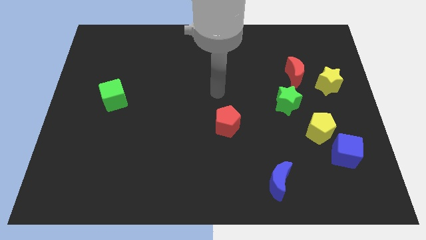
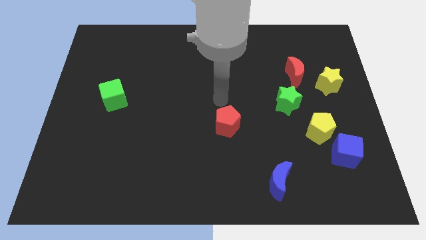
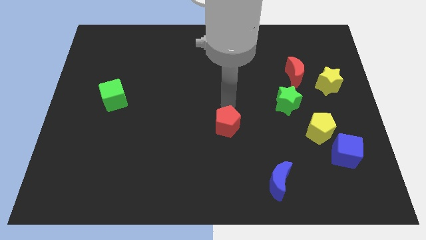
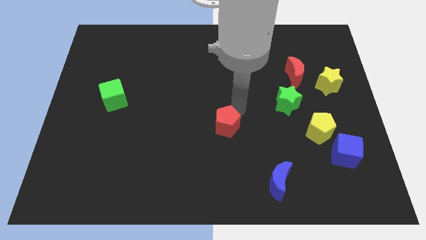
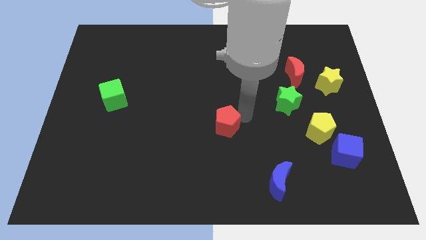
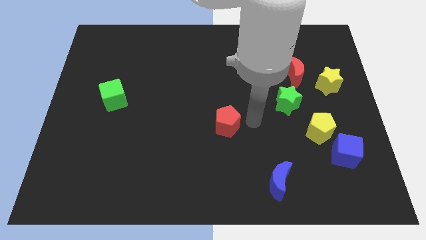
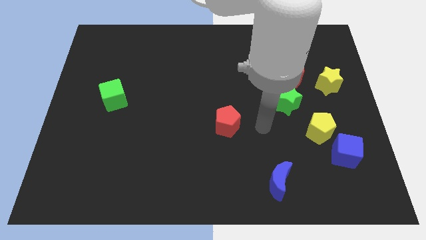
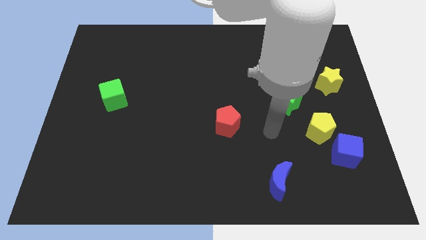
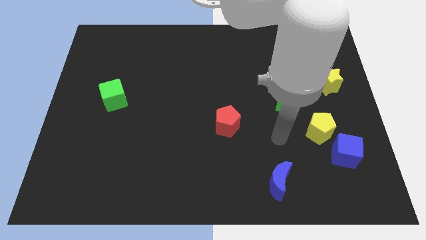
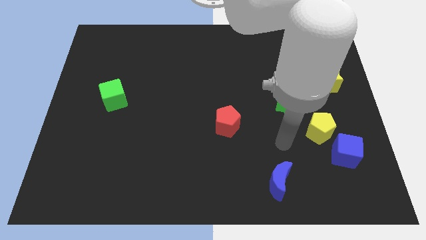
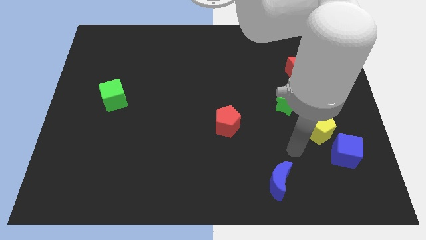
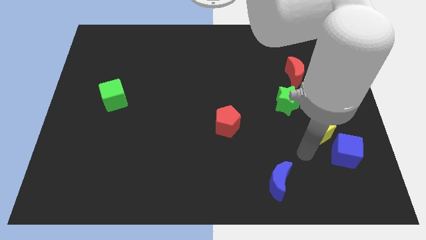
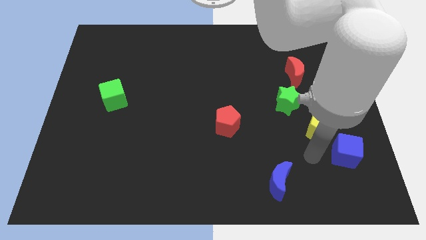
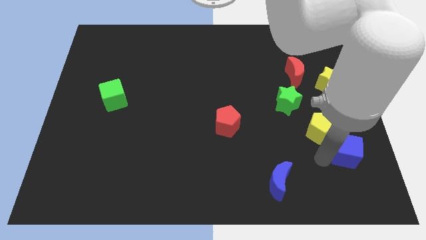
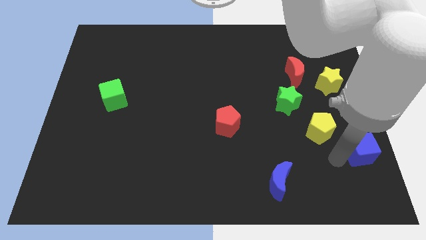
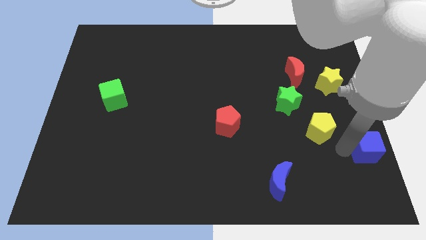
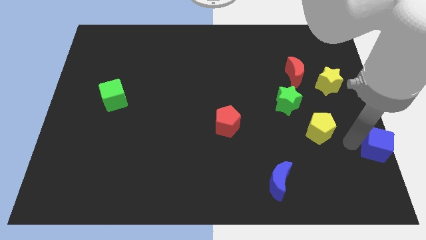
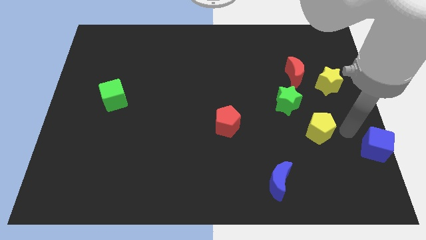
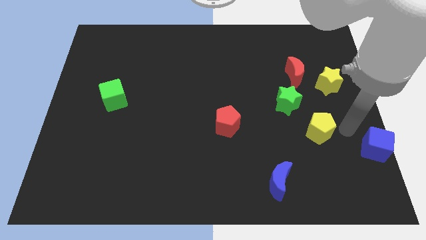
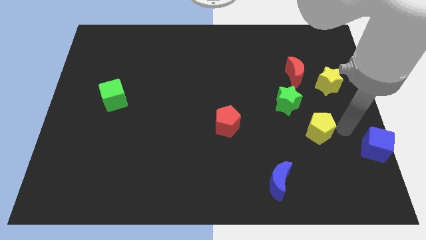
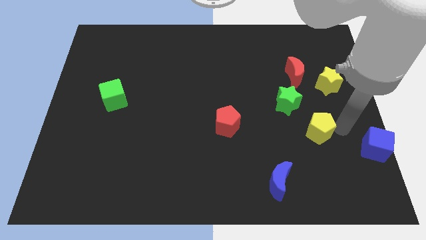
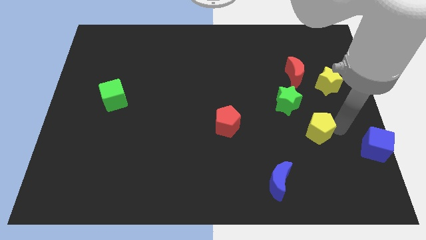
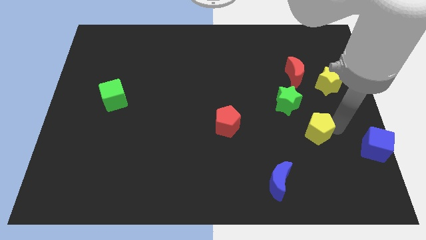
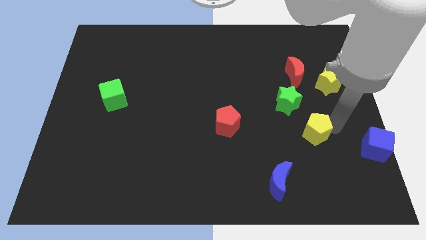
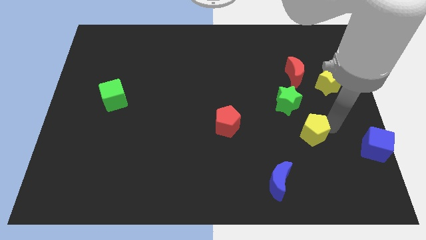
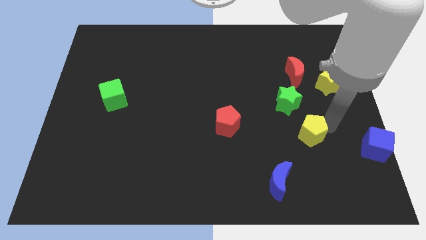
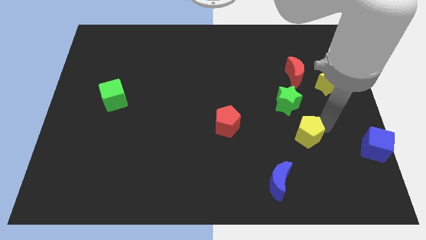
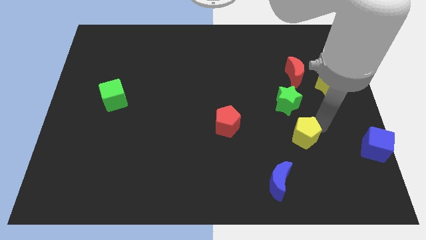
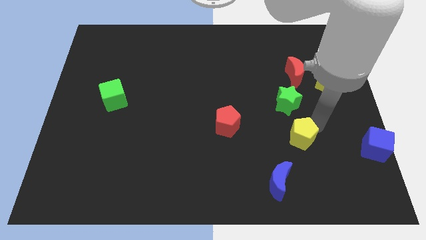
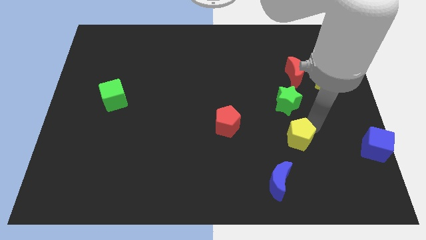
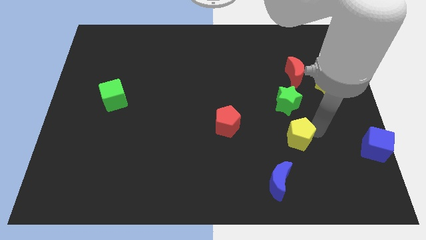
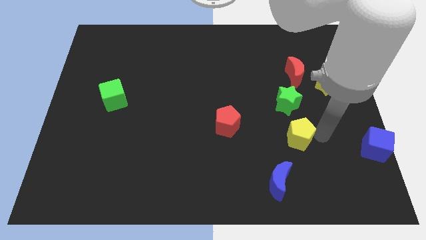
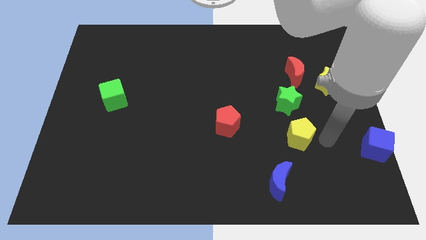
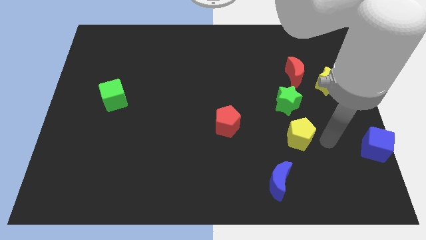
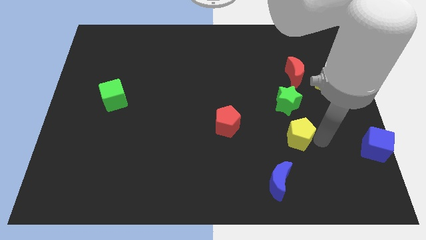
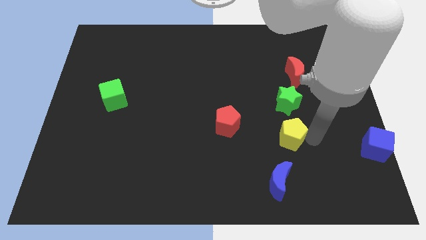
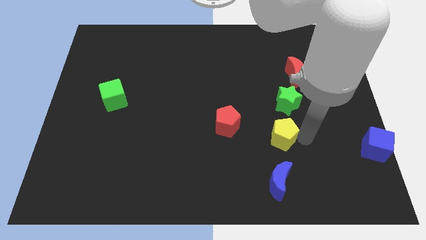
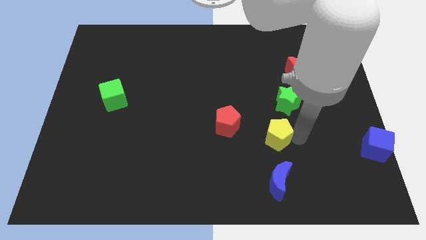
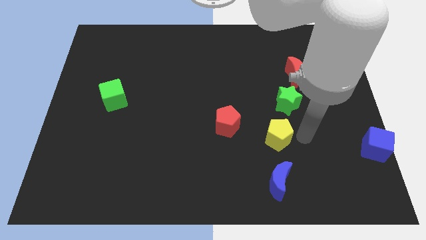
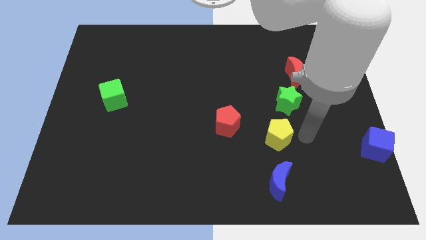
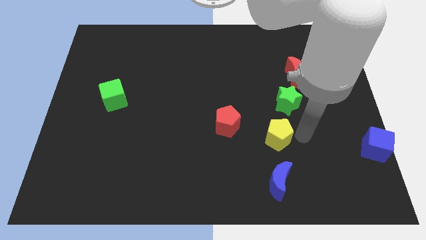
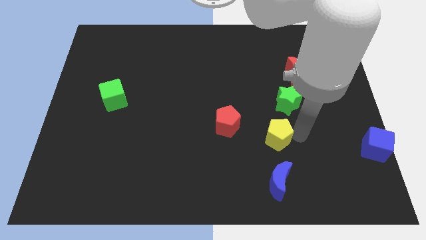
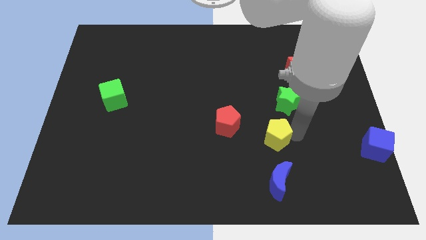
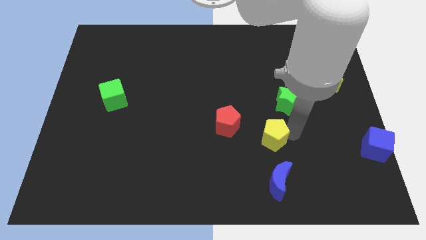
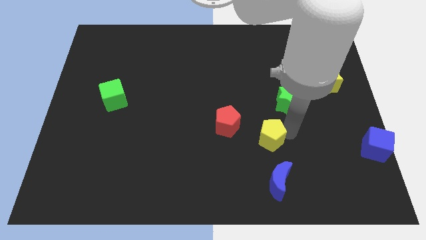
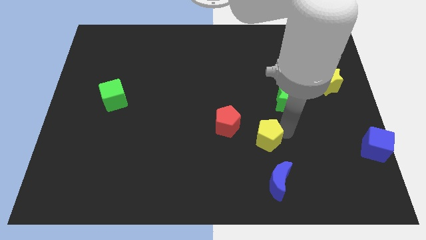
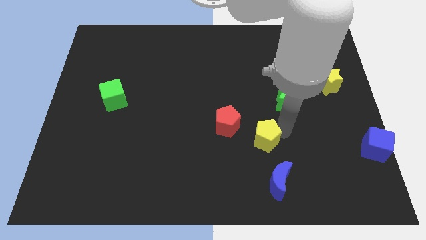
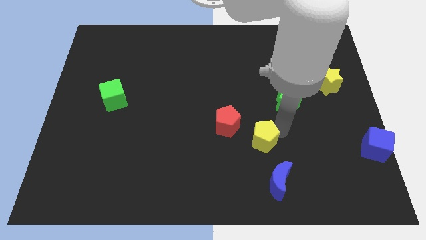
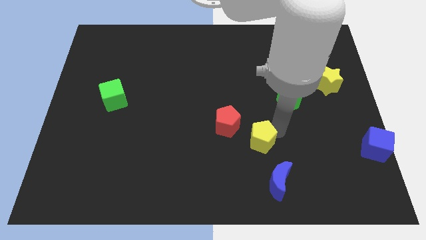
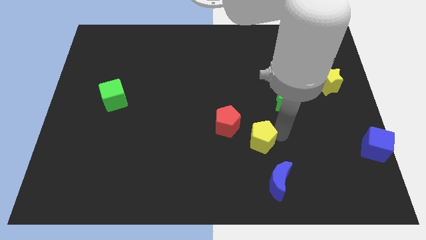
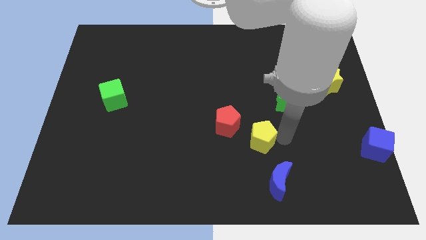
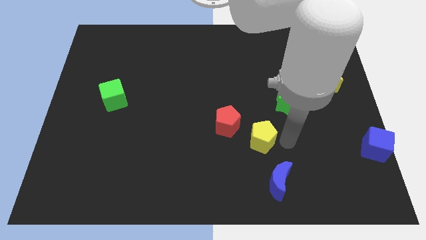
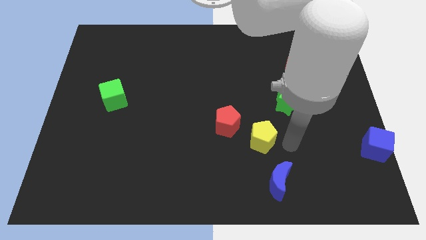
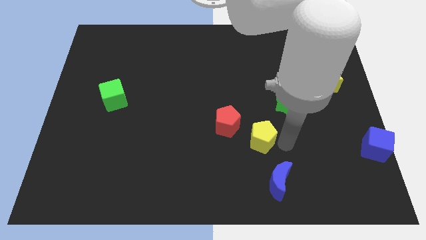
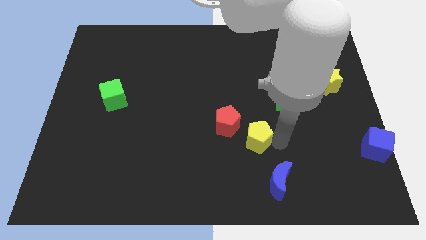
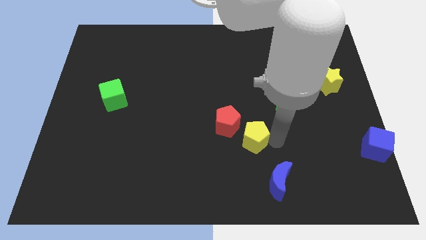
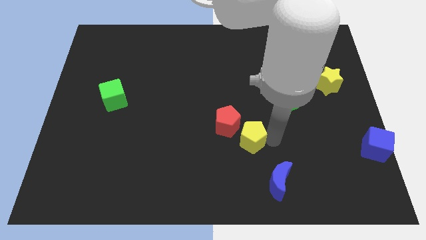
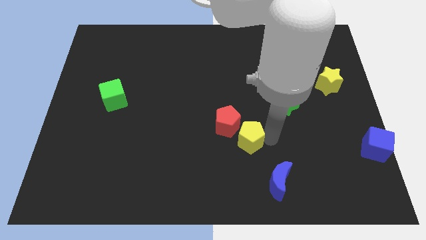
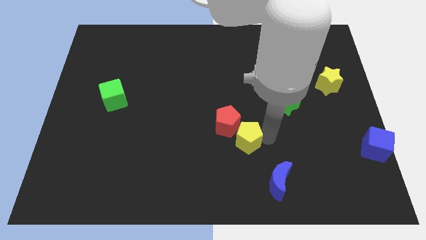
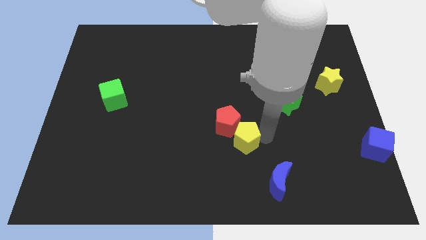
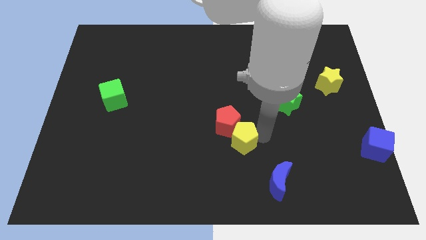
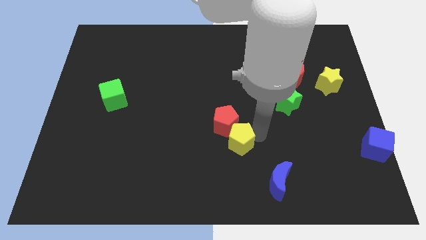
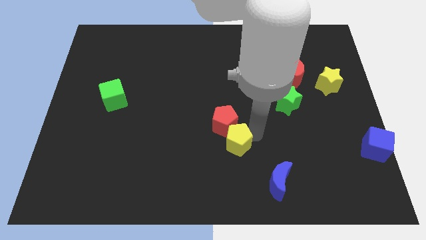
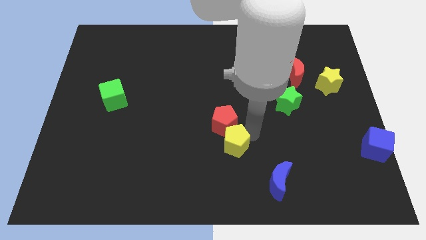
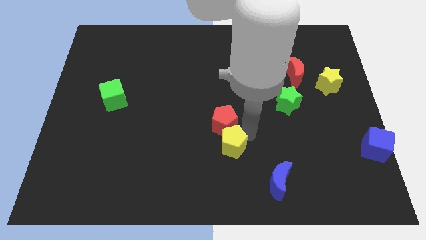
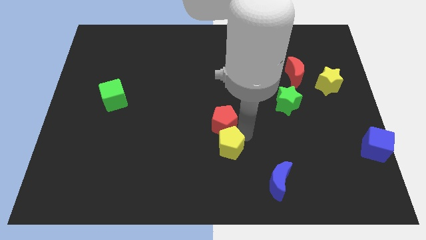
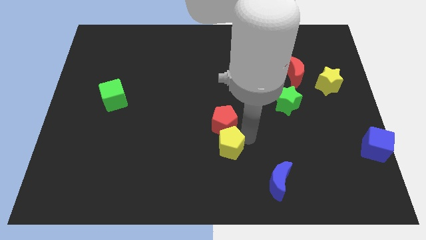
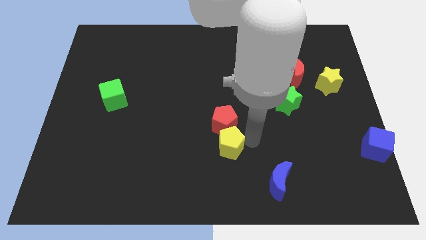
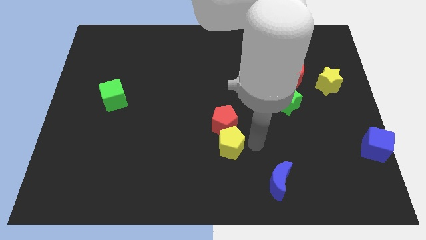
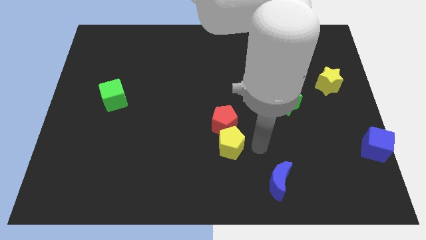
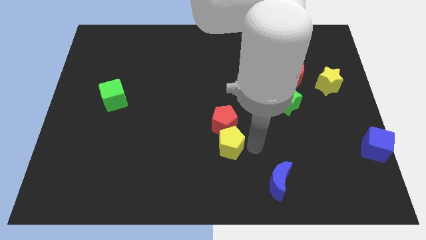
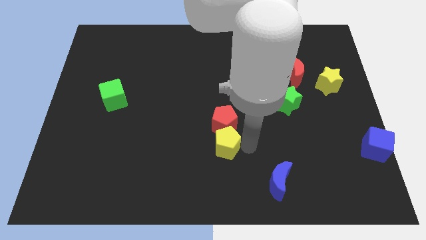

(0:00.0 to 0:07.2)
push the yellow pentagon to the left

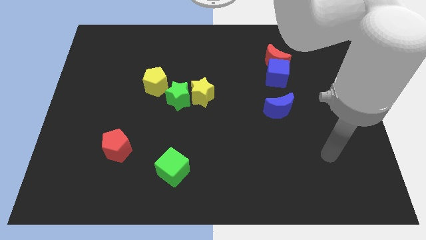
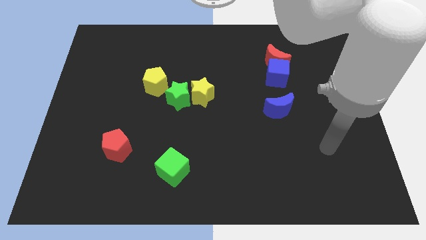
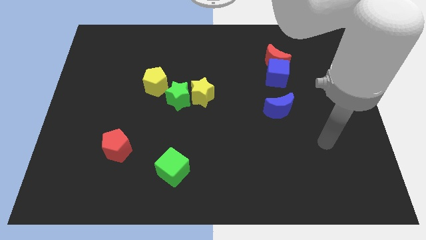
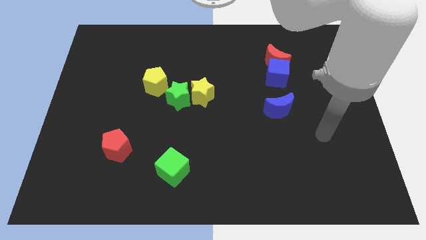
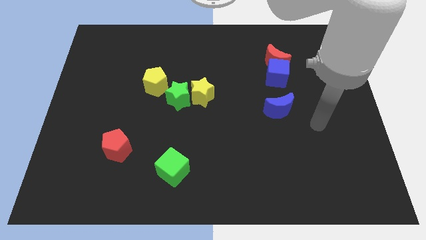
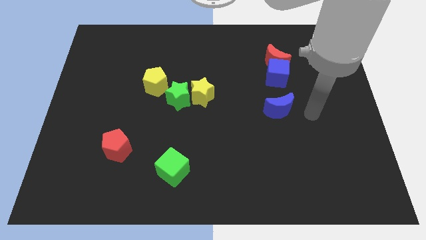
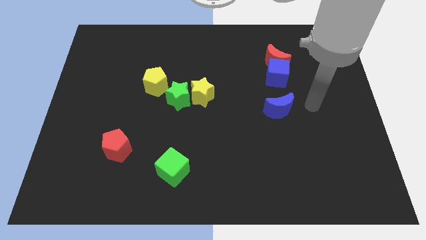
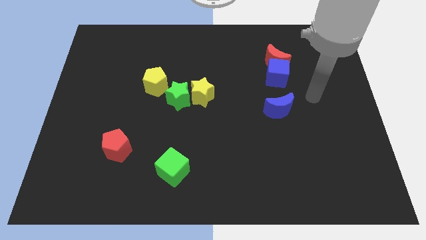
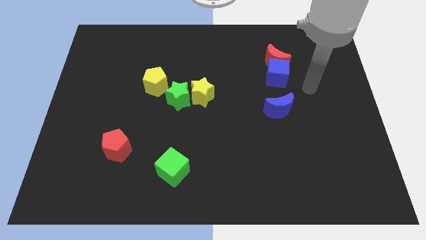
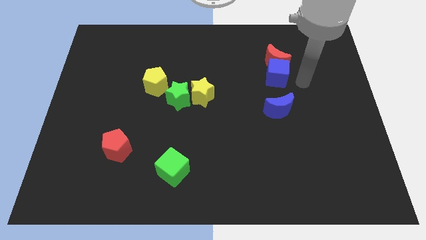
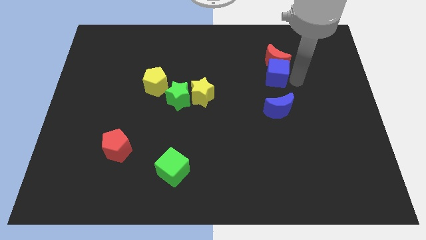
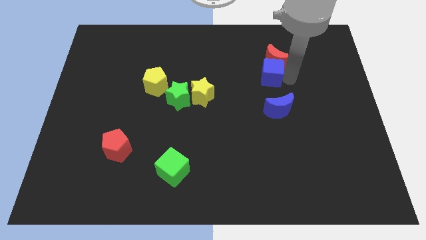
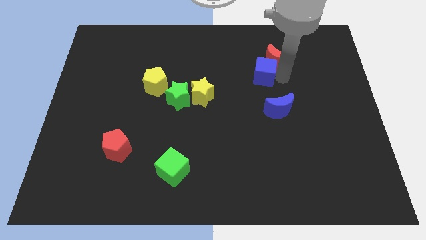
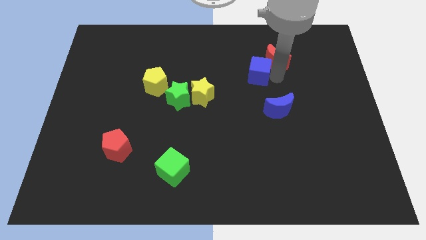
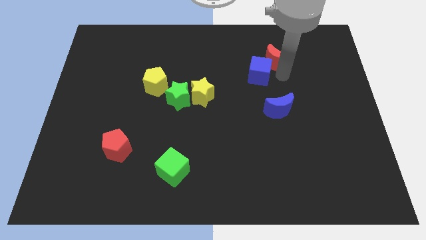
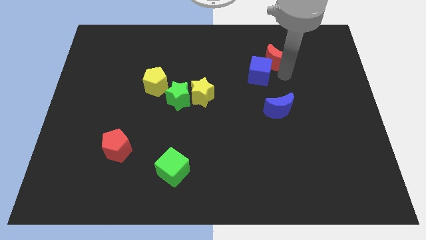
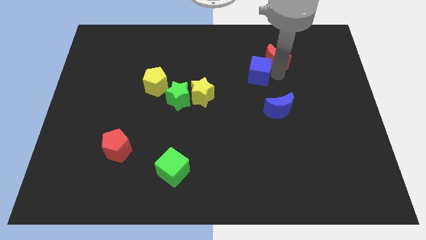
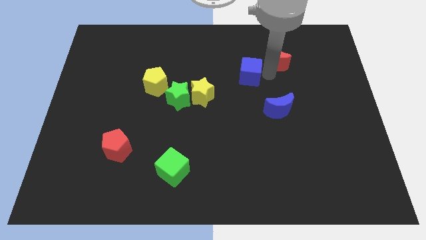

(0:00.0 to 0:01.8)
move the blue cube a bit to the left
